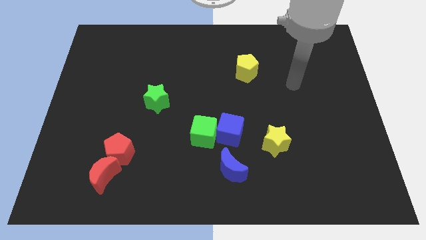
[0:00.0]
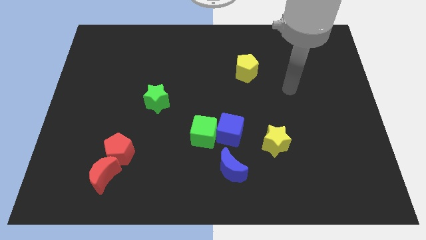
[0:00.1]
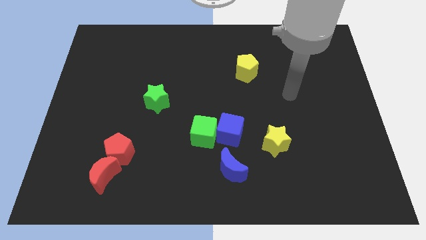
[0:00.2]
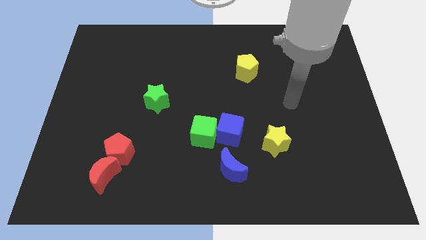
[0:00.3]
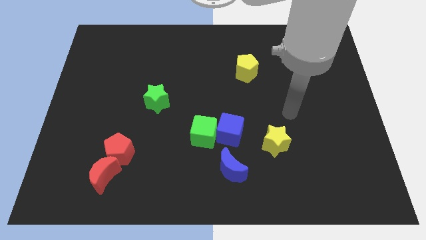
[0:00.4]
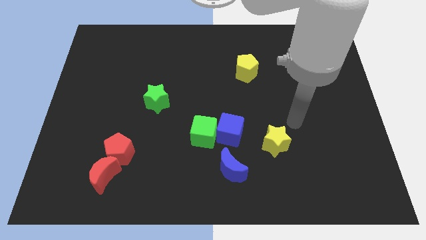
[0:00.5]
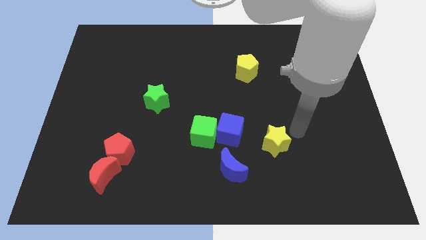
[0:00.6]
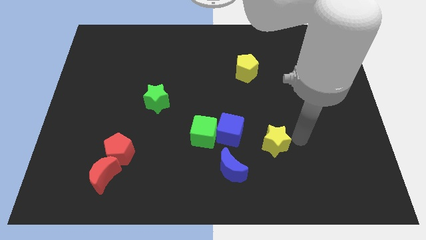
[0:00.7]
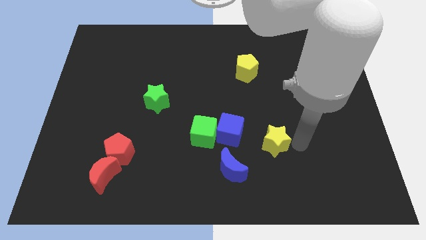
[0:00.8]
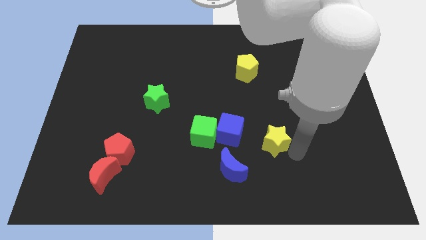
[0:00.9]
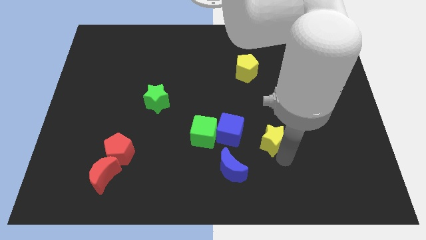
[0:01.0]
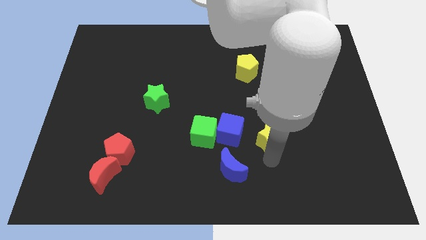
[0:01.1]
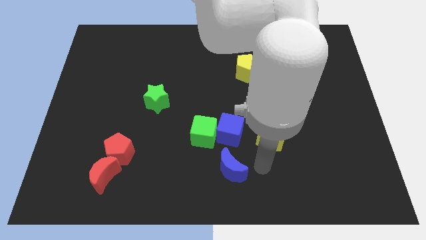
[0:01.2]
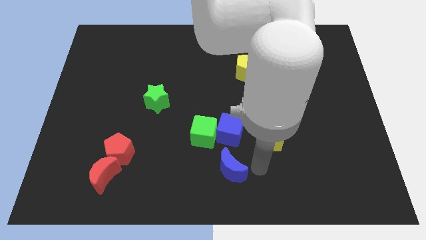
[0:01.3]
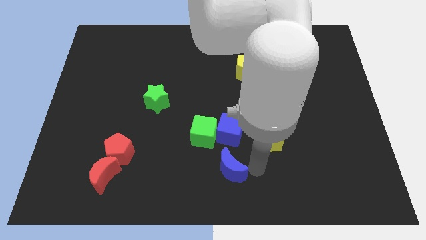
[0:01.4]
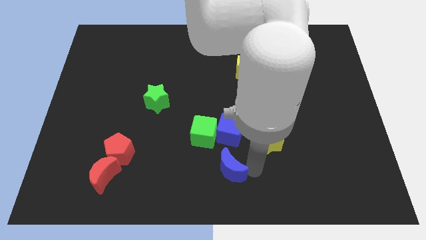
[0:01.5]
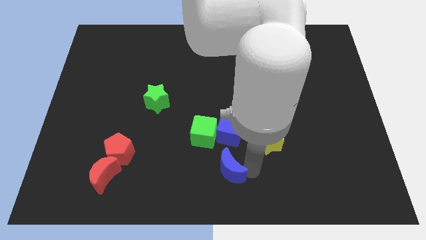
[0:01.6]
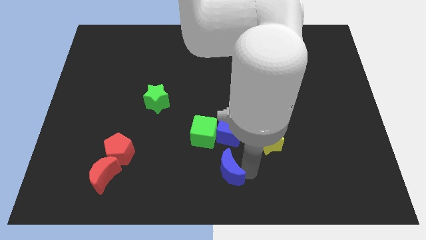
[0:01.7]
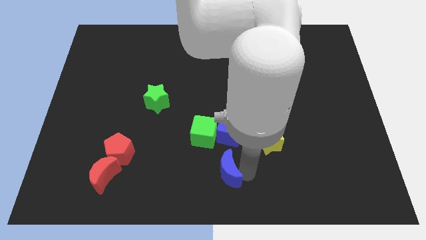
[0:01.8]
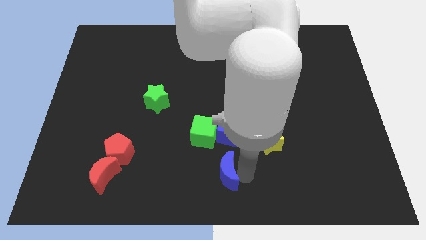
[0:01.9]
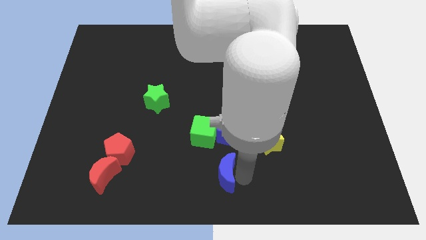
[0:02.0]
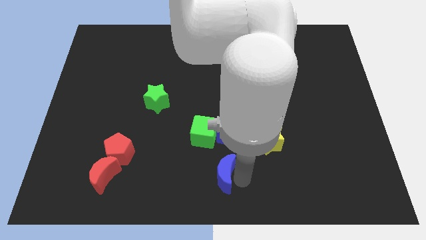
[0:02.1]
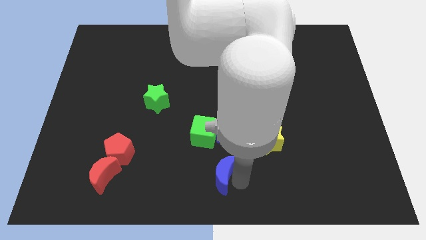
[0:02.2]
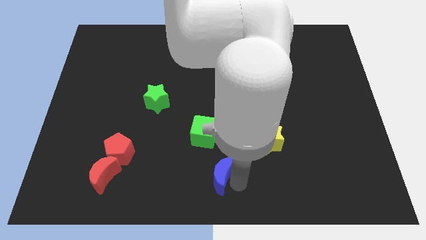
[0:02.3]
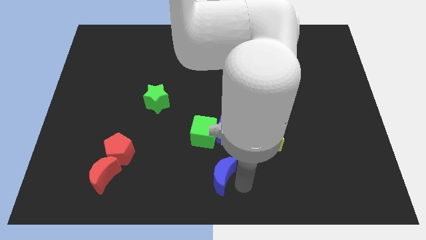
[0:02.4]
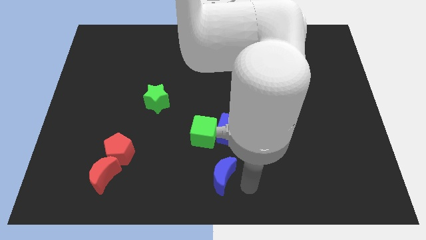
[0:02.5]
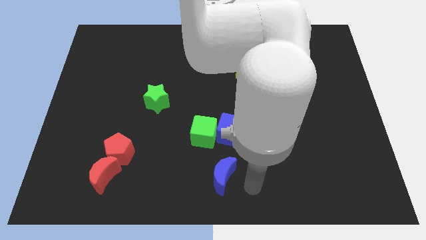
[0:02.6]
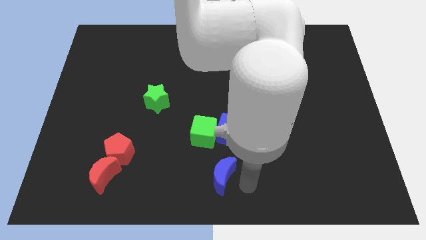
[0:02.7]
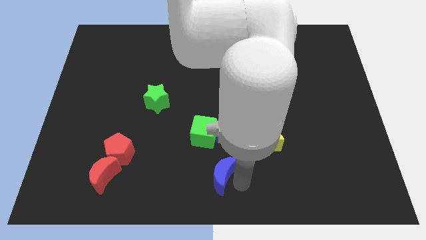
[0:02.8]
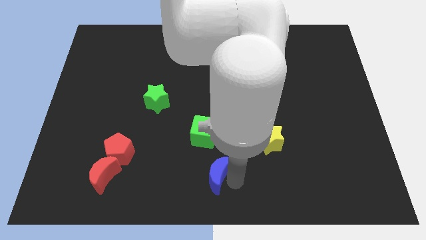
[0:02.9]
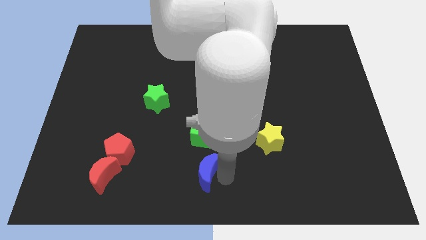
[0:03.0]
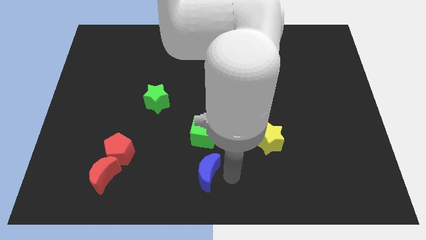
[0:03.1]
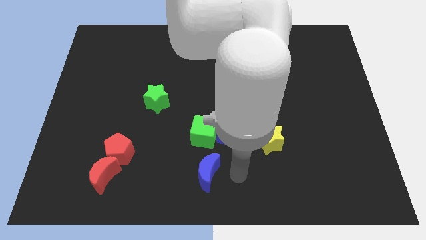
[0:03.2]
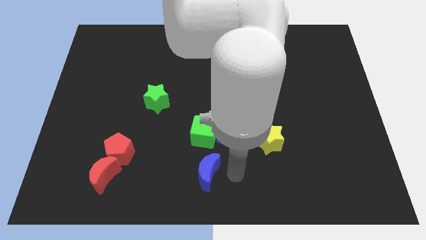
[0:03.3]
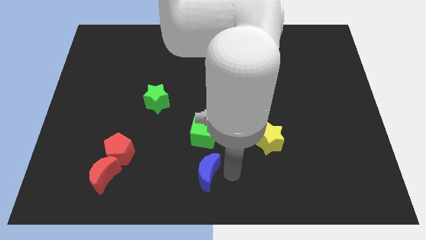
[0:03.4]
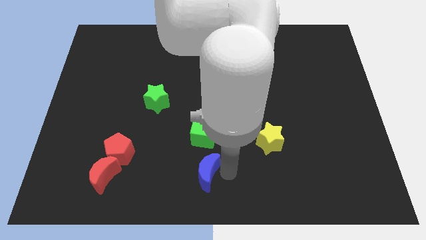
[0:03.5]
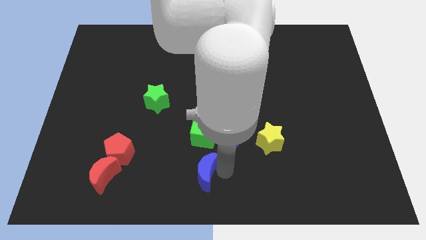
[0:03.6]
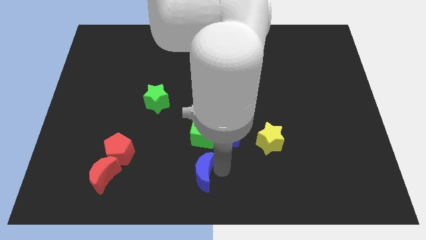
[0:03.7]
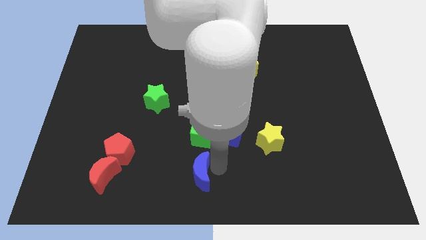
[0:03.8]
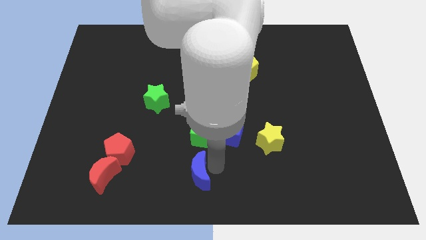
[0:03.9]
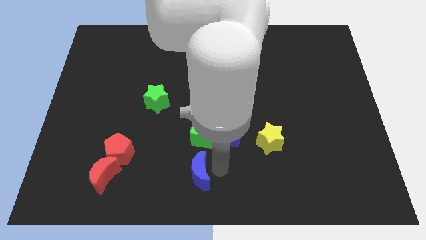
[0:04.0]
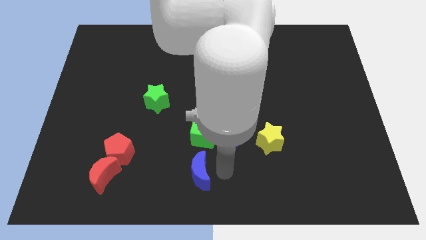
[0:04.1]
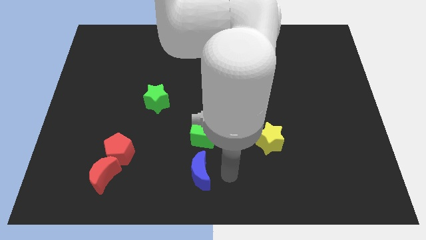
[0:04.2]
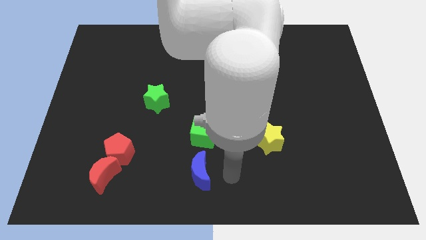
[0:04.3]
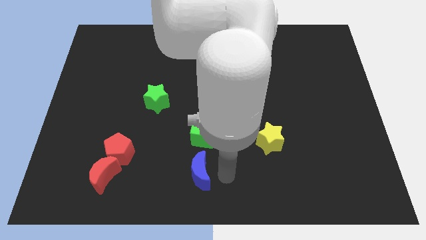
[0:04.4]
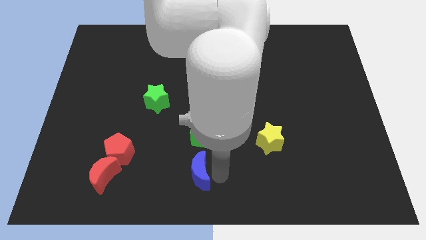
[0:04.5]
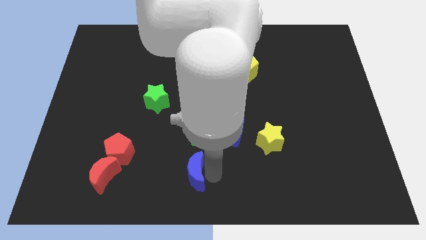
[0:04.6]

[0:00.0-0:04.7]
slightly move the blue moon left

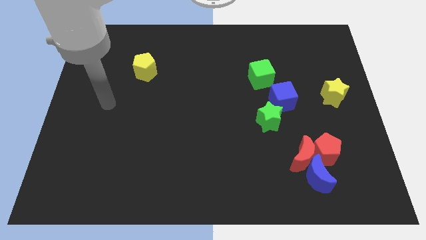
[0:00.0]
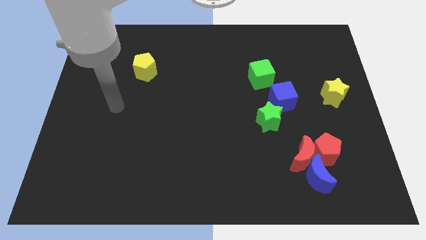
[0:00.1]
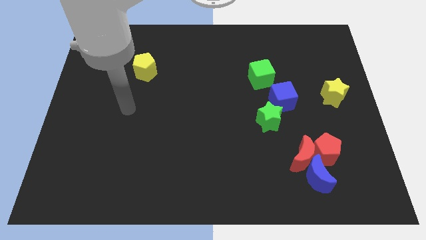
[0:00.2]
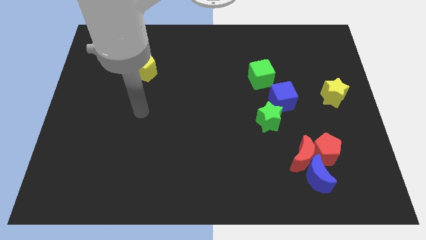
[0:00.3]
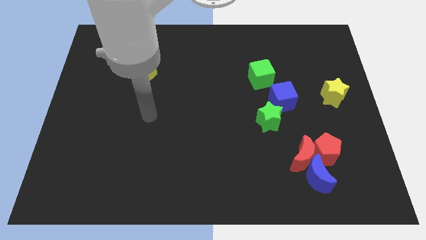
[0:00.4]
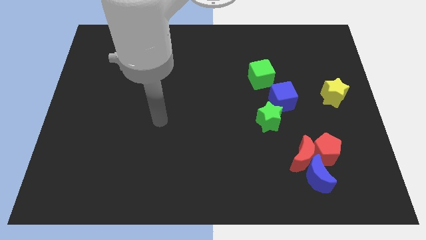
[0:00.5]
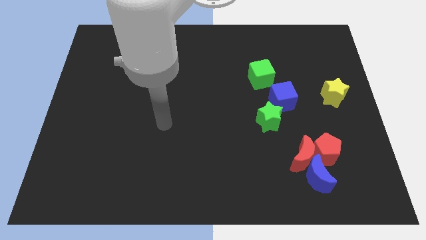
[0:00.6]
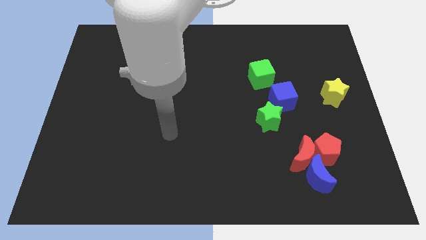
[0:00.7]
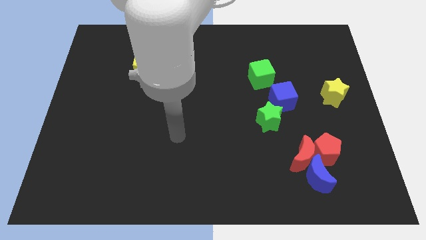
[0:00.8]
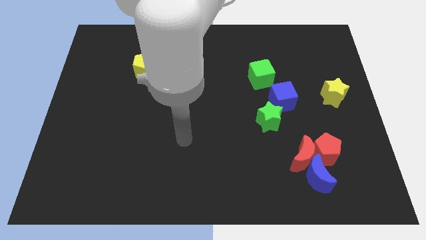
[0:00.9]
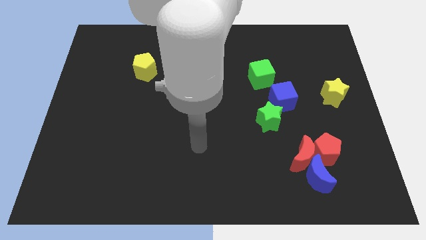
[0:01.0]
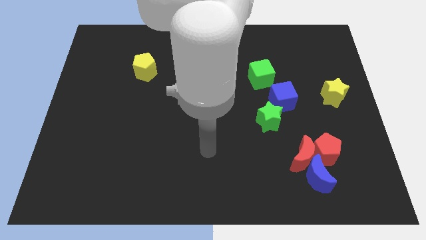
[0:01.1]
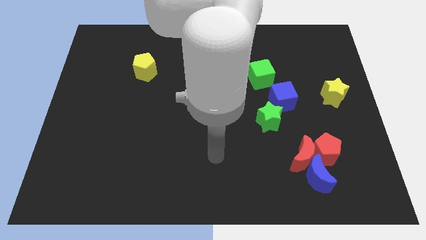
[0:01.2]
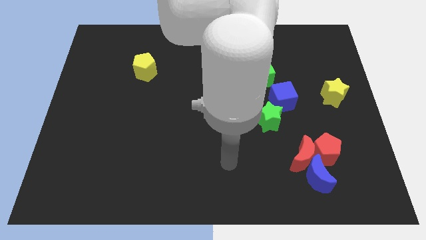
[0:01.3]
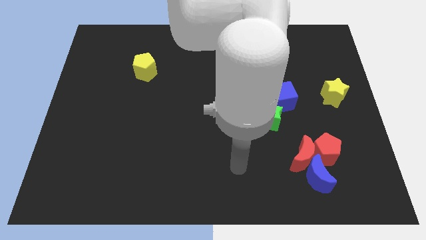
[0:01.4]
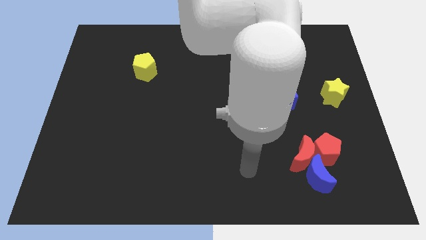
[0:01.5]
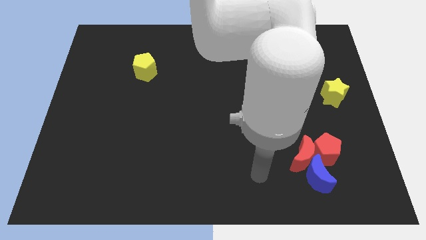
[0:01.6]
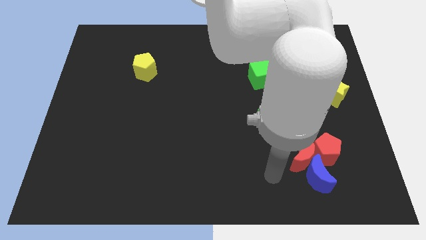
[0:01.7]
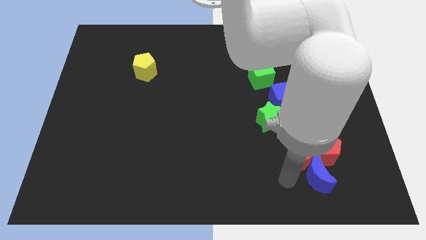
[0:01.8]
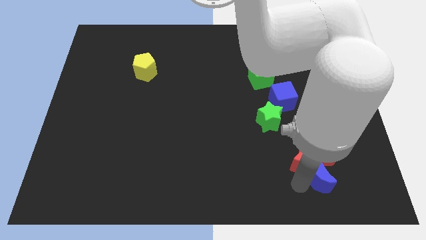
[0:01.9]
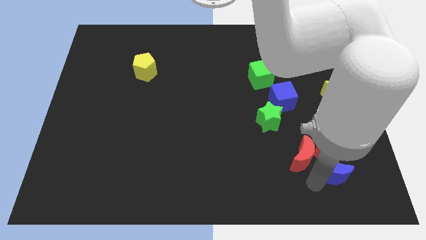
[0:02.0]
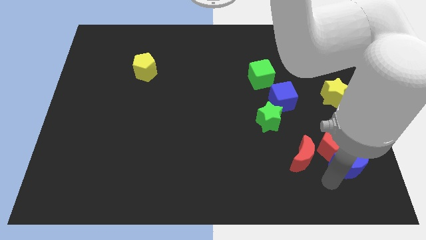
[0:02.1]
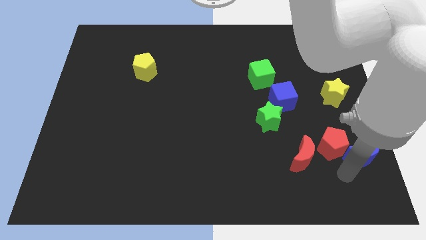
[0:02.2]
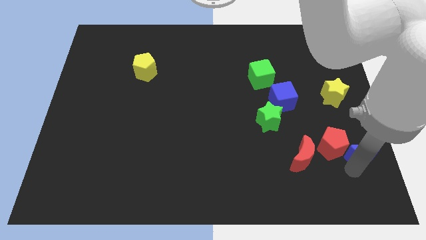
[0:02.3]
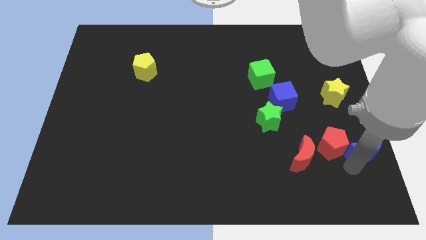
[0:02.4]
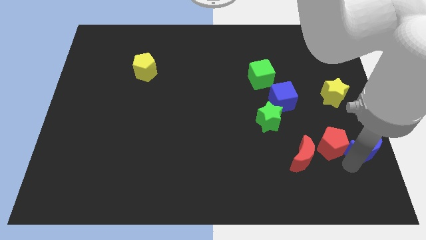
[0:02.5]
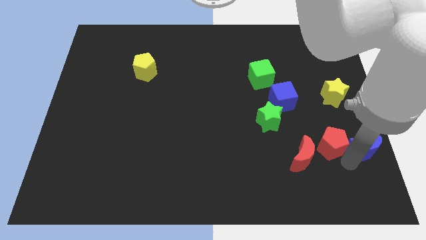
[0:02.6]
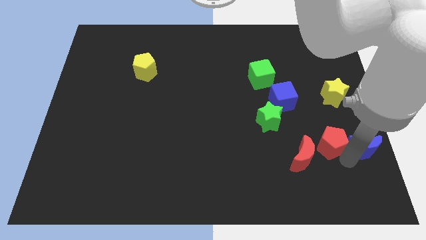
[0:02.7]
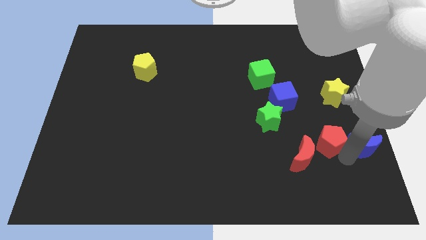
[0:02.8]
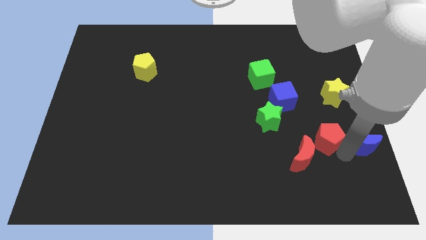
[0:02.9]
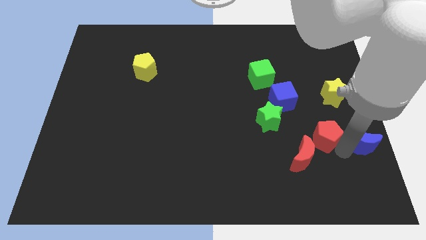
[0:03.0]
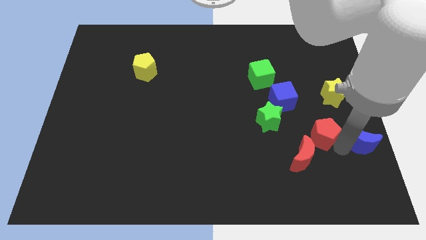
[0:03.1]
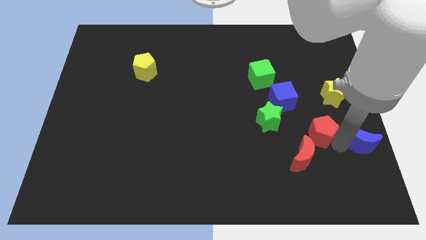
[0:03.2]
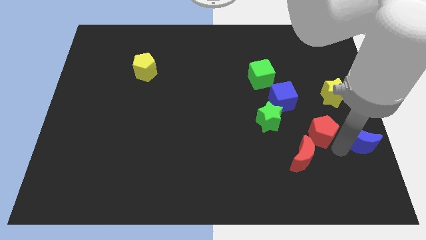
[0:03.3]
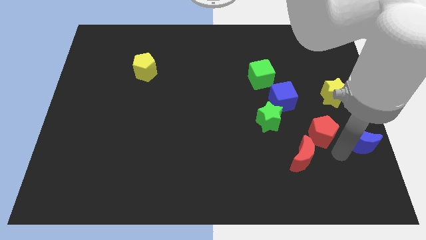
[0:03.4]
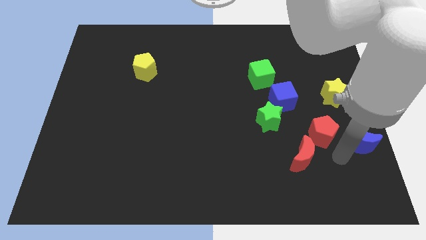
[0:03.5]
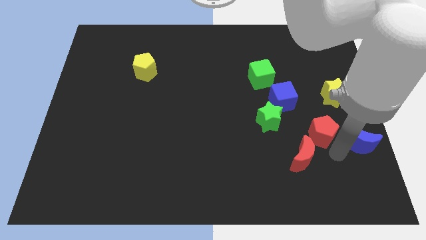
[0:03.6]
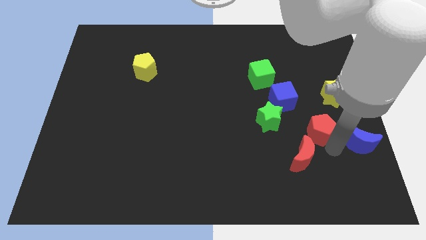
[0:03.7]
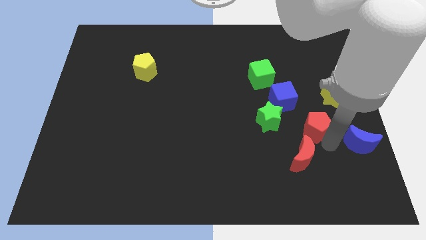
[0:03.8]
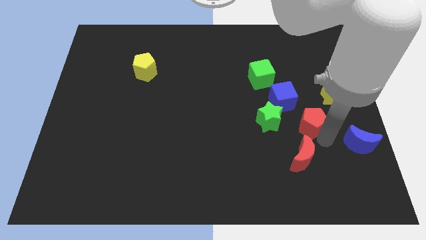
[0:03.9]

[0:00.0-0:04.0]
push the red pentagon somewhat up
